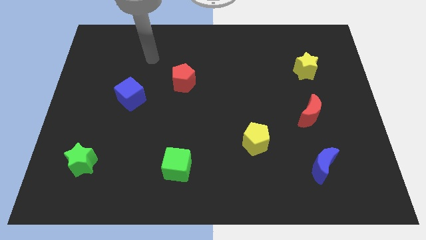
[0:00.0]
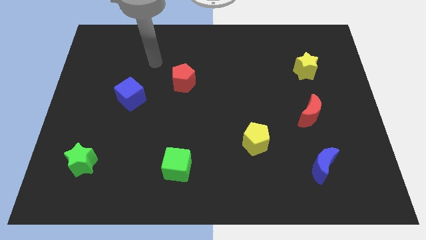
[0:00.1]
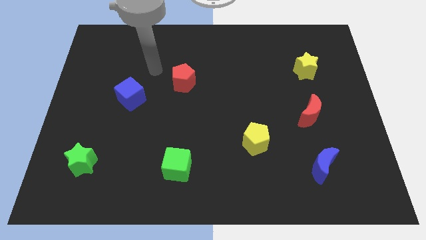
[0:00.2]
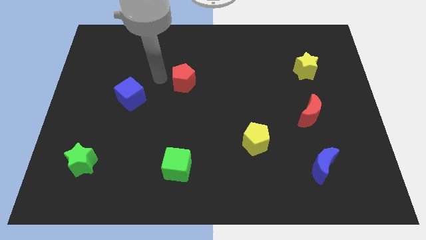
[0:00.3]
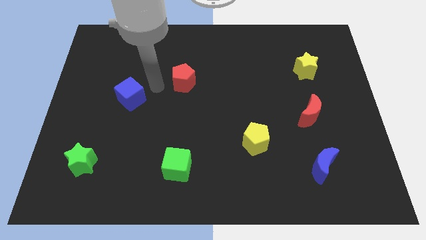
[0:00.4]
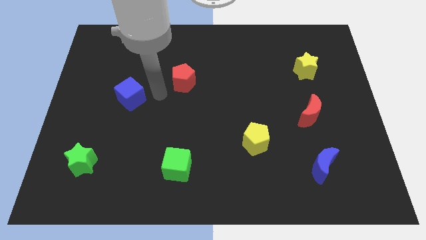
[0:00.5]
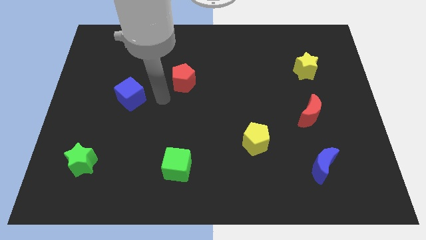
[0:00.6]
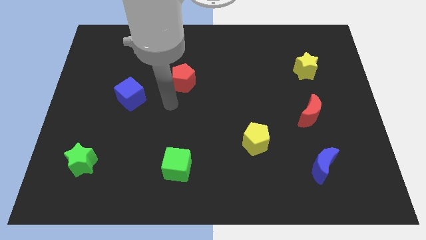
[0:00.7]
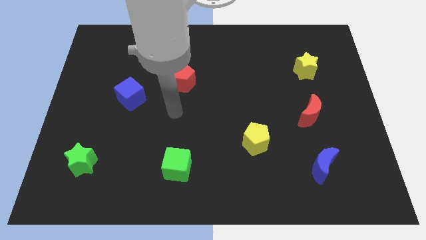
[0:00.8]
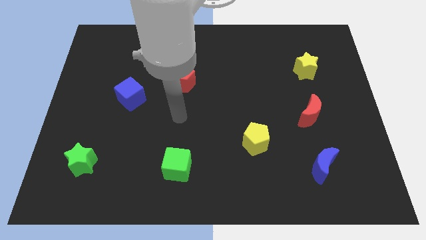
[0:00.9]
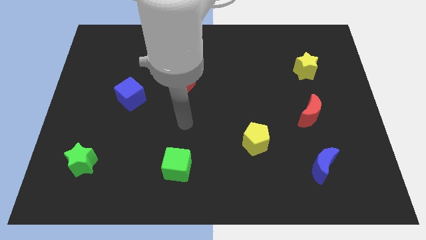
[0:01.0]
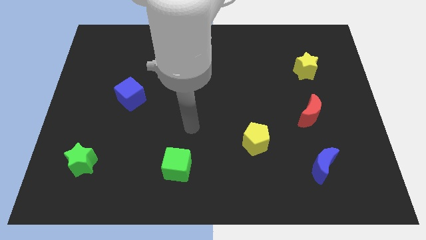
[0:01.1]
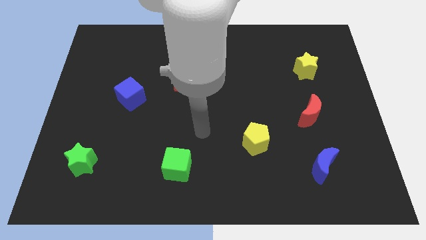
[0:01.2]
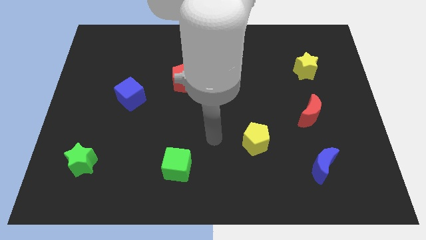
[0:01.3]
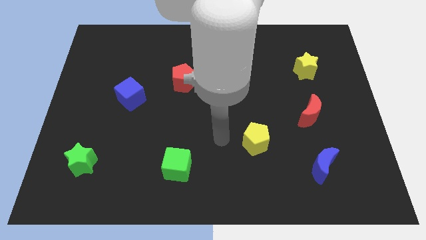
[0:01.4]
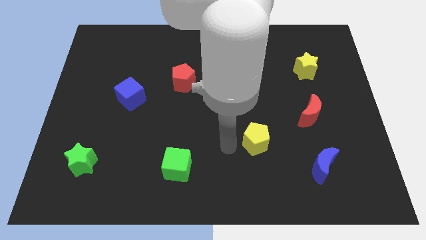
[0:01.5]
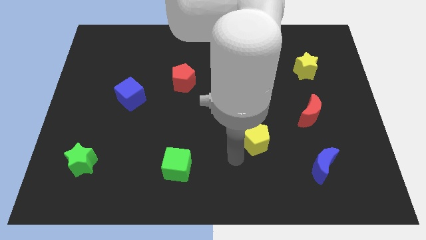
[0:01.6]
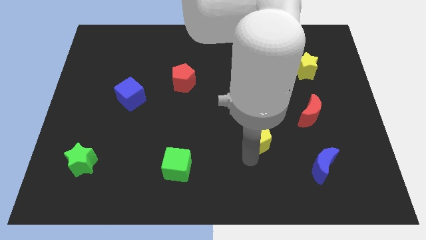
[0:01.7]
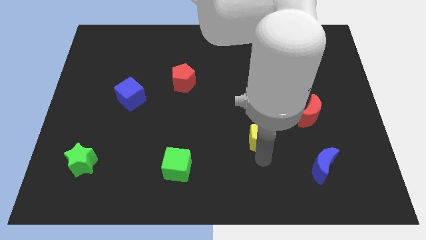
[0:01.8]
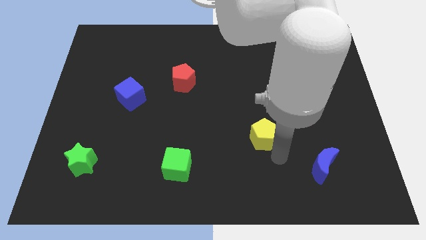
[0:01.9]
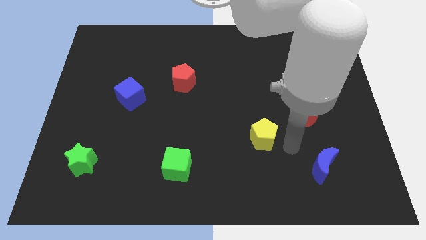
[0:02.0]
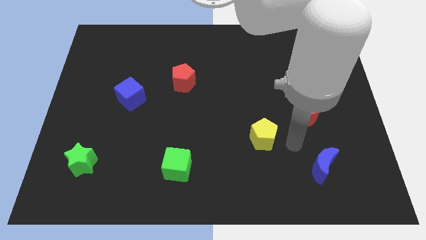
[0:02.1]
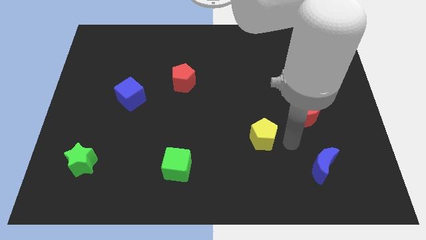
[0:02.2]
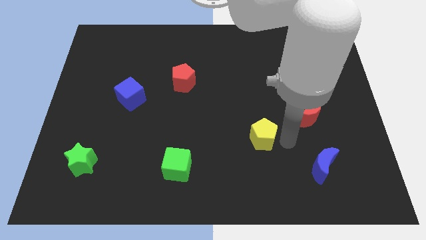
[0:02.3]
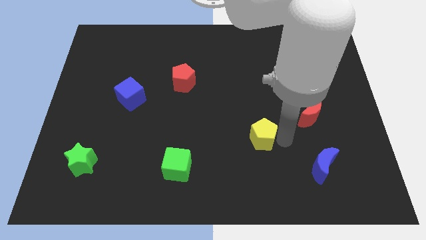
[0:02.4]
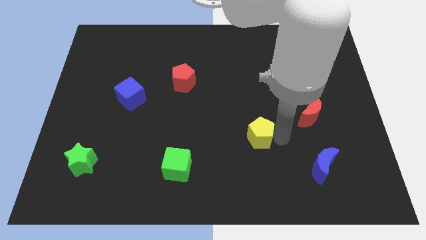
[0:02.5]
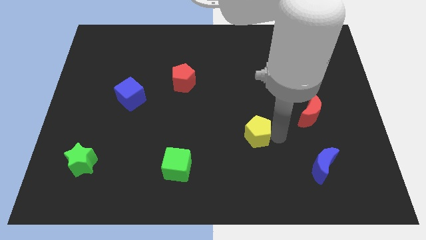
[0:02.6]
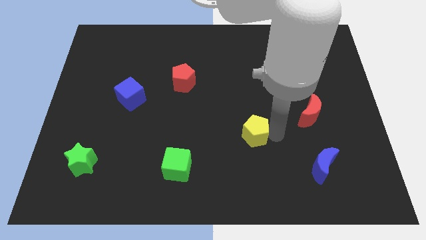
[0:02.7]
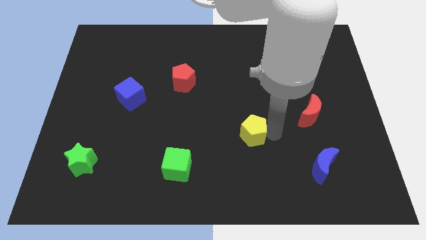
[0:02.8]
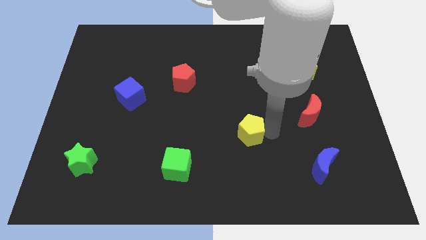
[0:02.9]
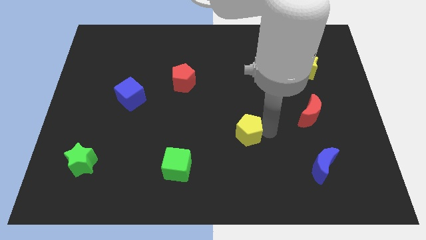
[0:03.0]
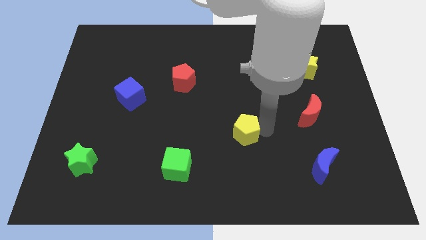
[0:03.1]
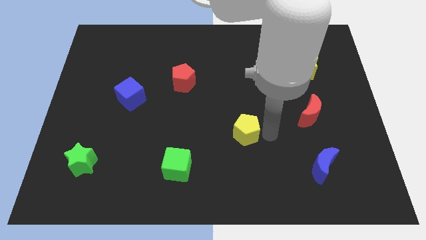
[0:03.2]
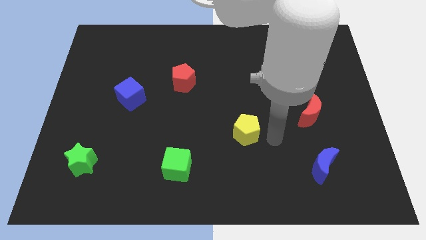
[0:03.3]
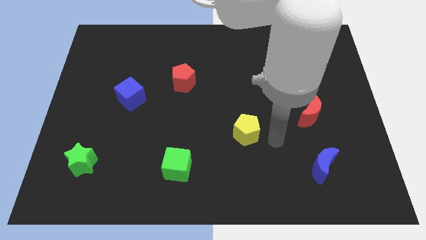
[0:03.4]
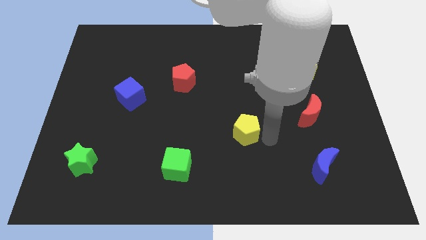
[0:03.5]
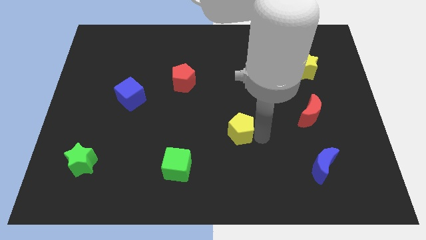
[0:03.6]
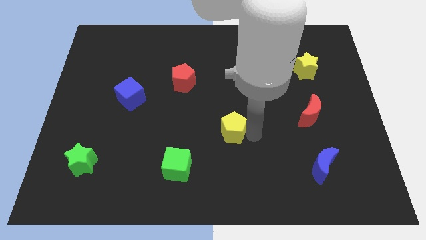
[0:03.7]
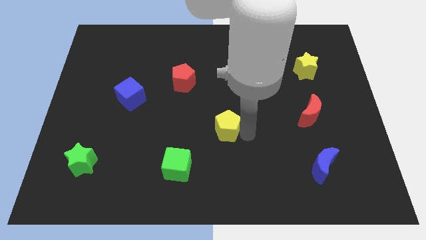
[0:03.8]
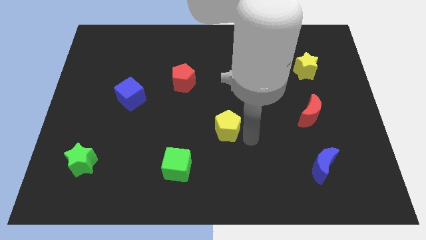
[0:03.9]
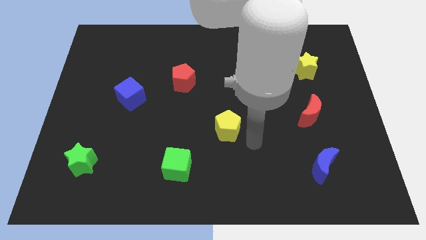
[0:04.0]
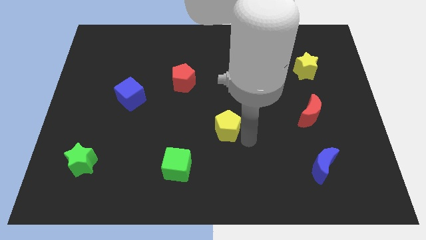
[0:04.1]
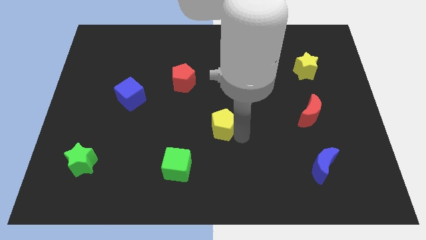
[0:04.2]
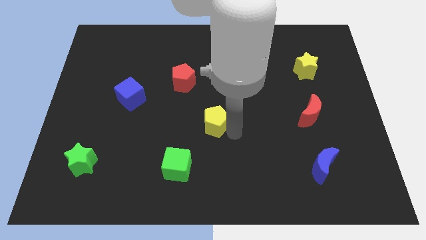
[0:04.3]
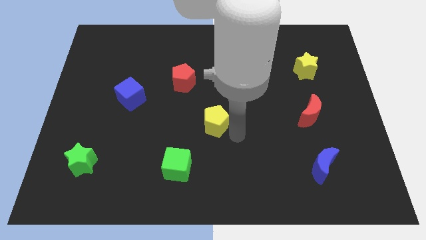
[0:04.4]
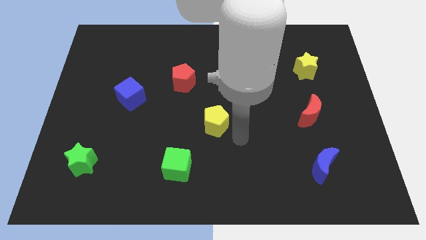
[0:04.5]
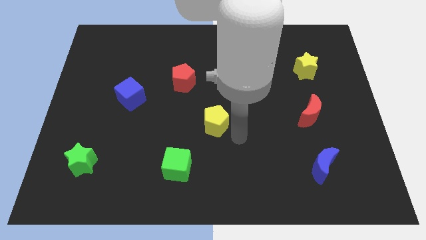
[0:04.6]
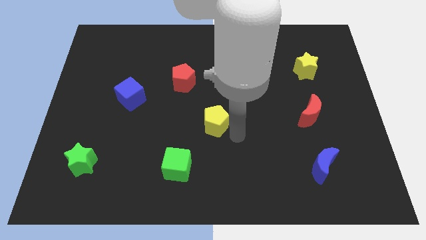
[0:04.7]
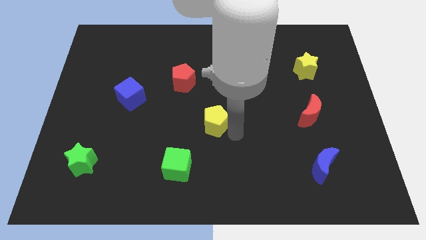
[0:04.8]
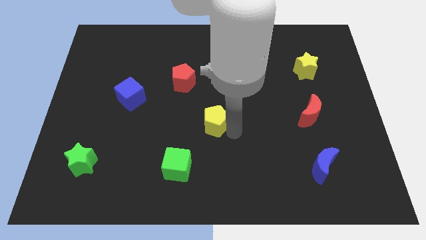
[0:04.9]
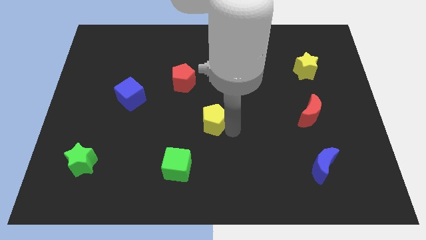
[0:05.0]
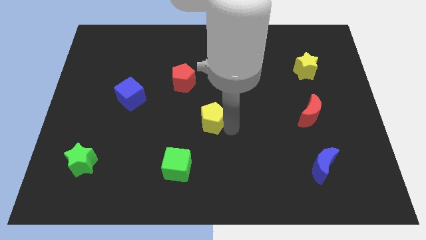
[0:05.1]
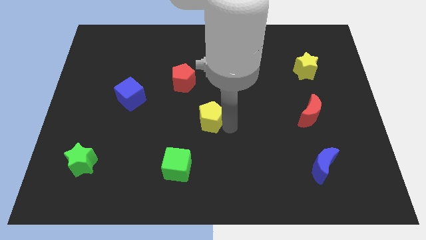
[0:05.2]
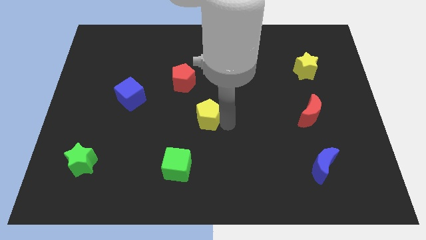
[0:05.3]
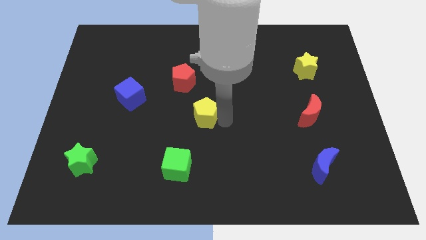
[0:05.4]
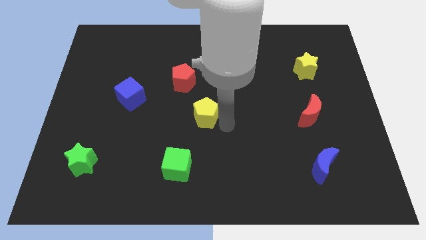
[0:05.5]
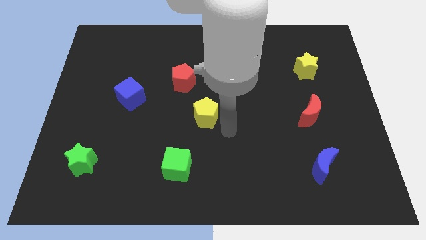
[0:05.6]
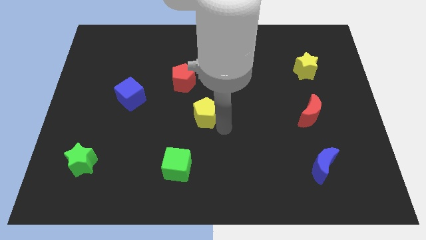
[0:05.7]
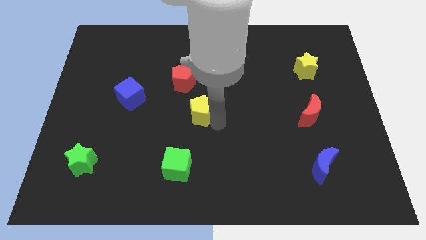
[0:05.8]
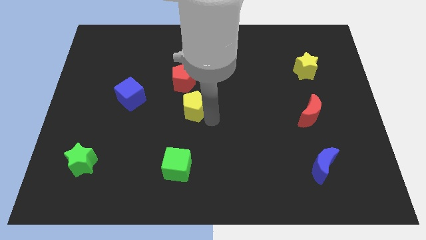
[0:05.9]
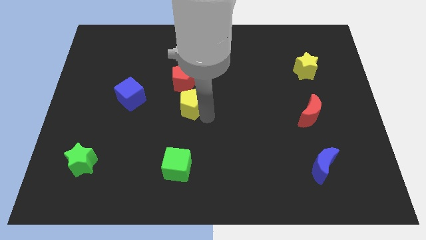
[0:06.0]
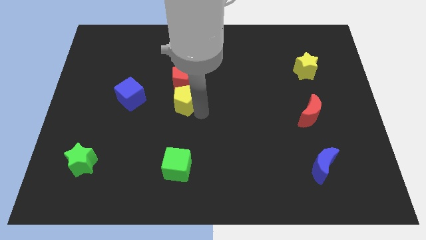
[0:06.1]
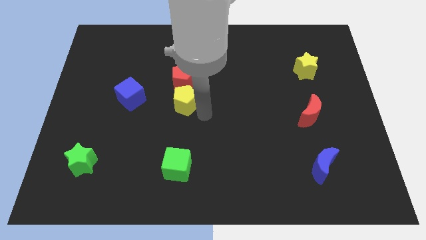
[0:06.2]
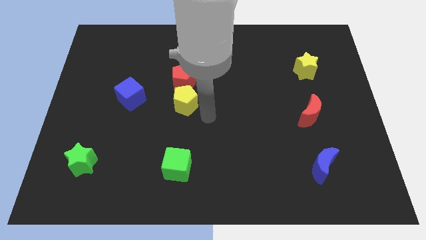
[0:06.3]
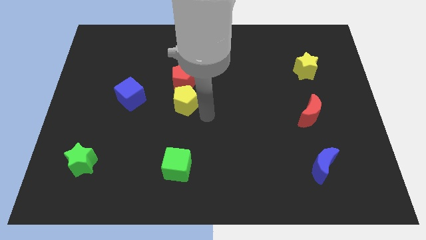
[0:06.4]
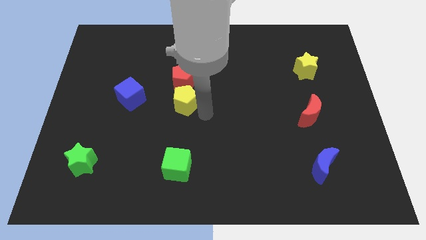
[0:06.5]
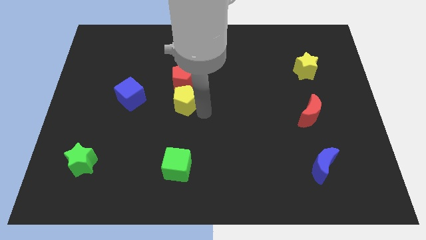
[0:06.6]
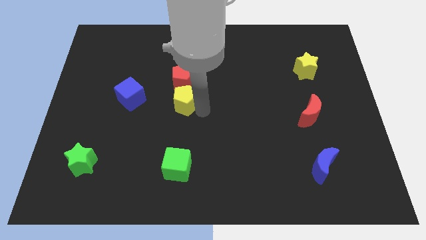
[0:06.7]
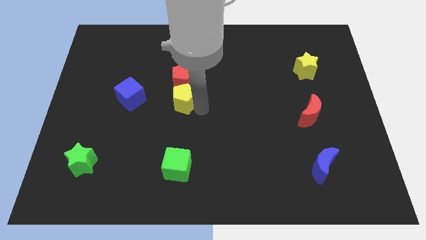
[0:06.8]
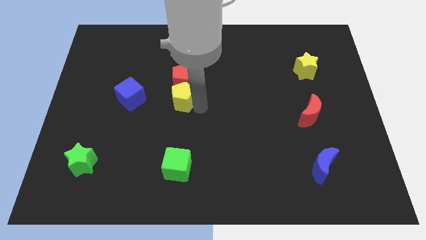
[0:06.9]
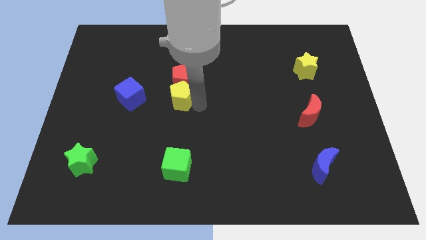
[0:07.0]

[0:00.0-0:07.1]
slide the yellow pentagon upwards and to the left diagonally

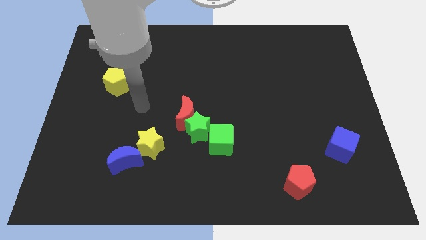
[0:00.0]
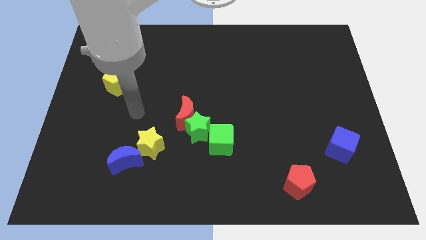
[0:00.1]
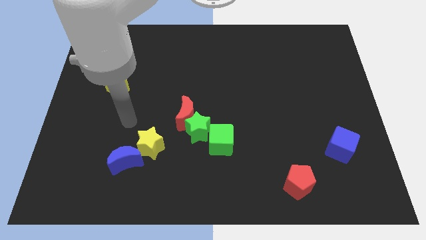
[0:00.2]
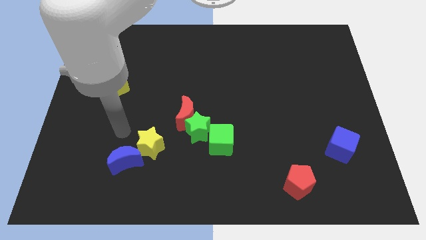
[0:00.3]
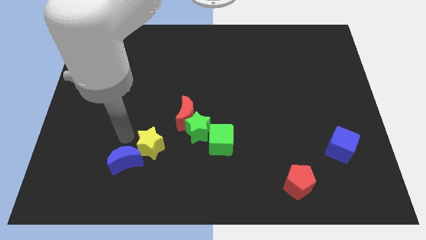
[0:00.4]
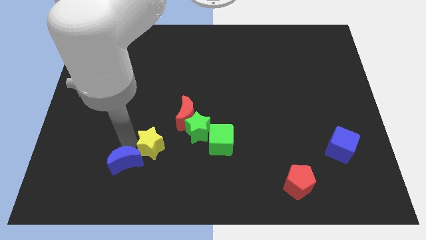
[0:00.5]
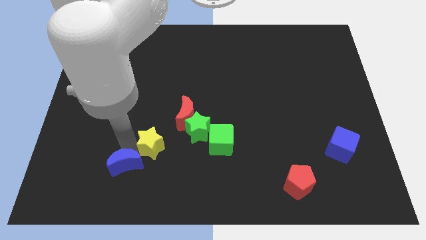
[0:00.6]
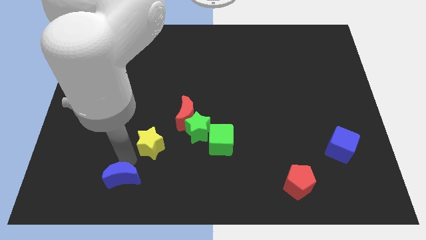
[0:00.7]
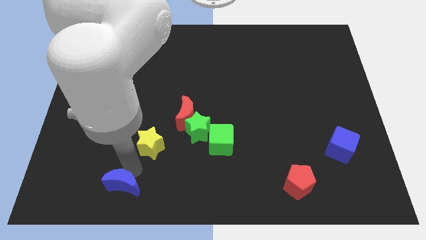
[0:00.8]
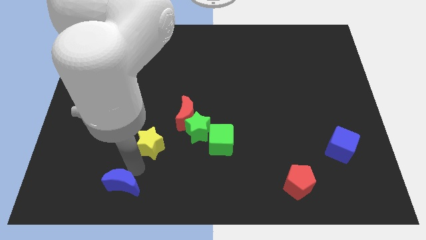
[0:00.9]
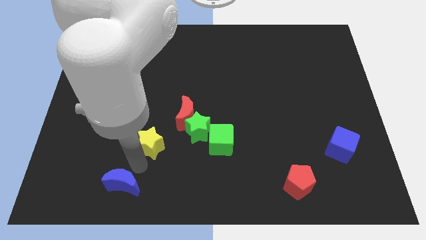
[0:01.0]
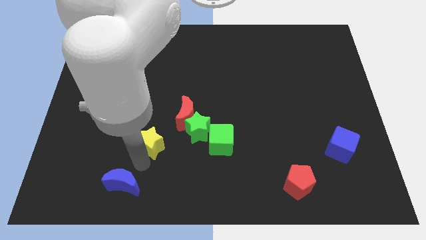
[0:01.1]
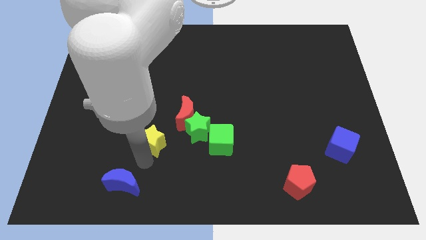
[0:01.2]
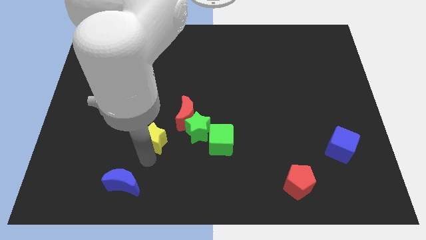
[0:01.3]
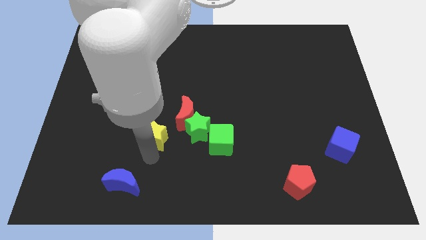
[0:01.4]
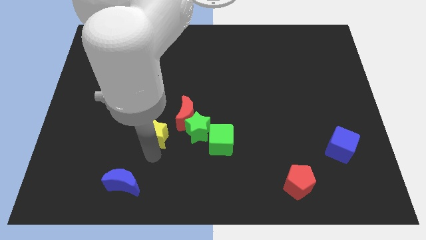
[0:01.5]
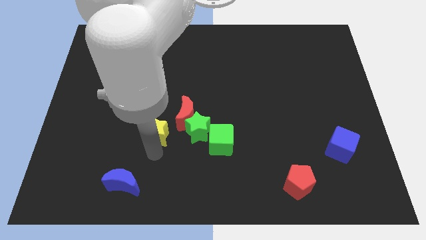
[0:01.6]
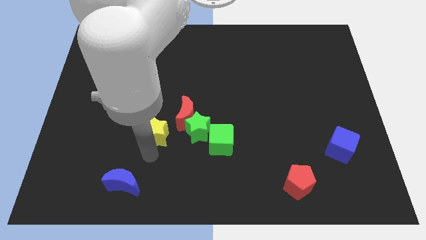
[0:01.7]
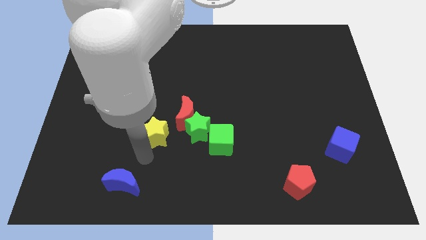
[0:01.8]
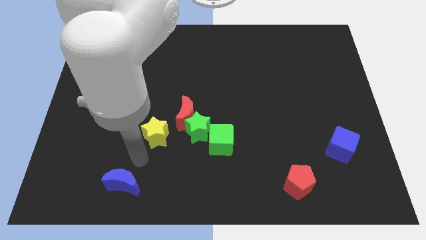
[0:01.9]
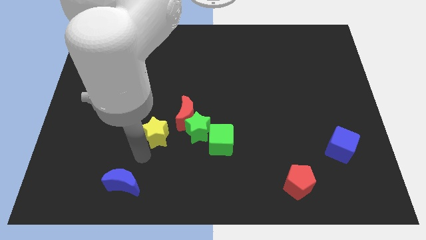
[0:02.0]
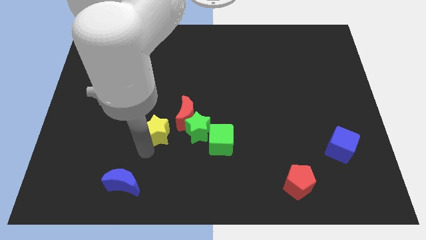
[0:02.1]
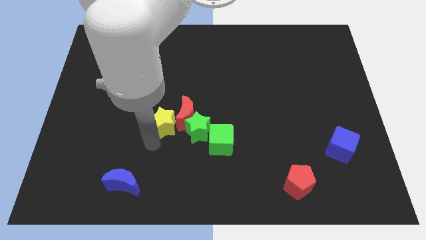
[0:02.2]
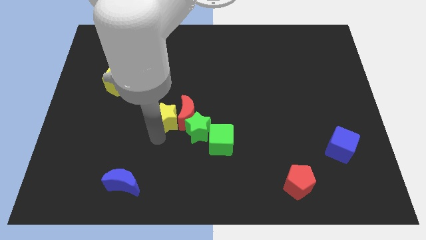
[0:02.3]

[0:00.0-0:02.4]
slide the yellow star up and right a little
